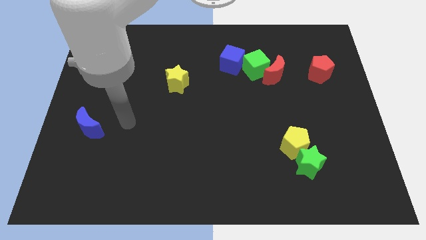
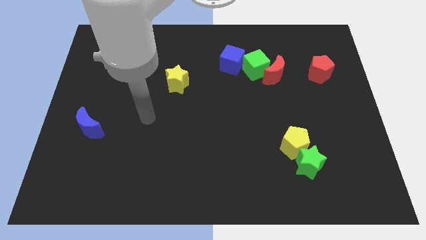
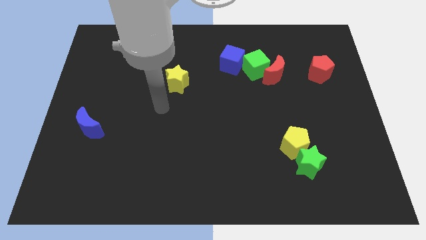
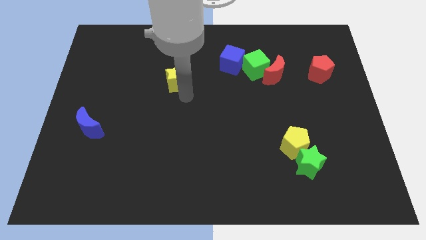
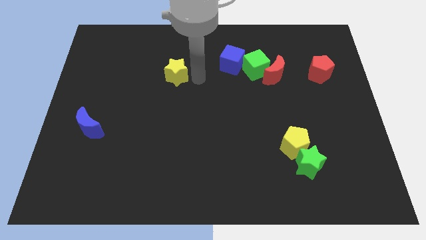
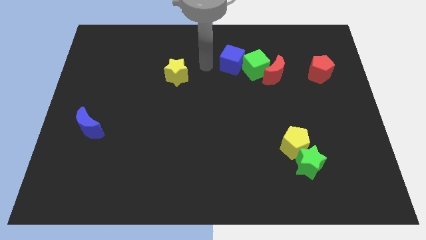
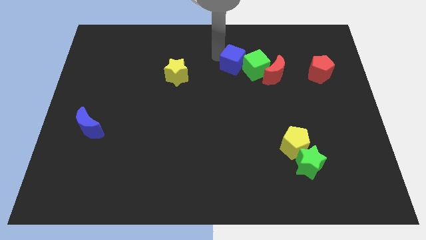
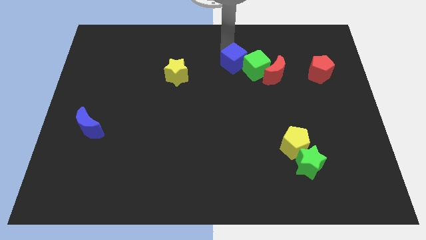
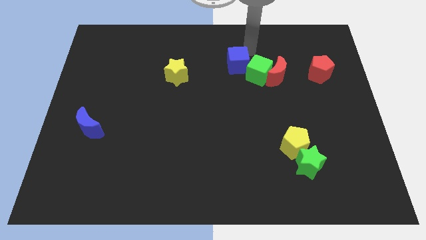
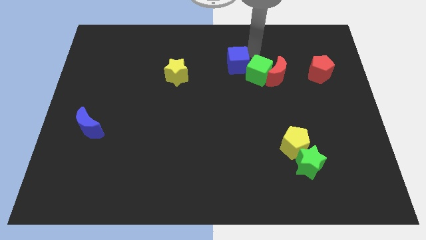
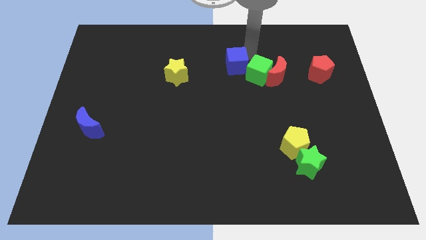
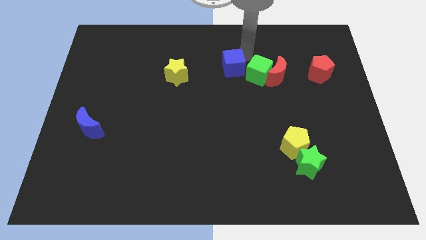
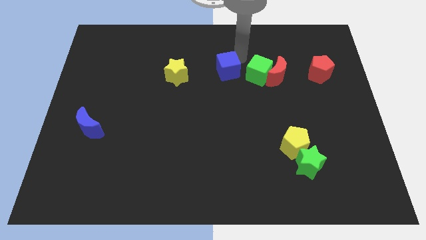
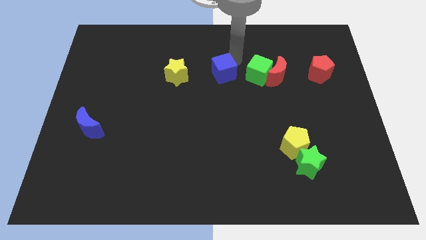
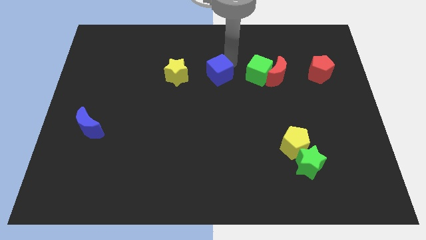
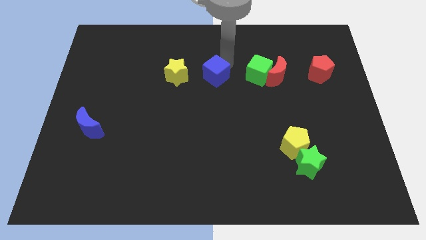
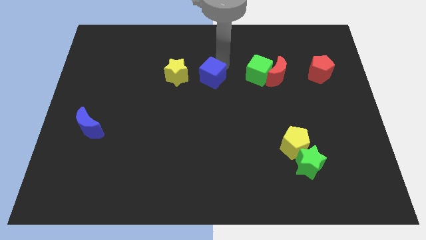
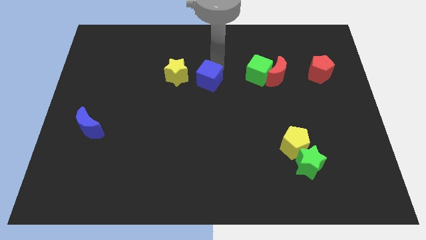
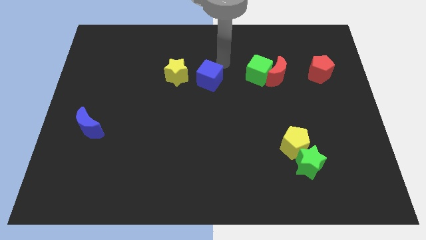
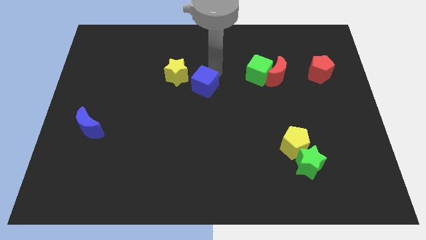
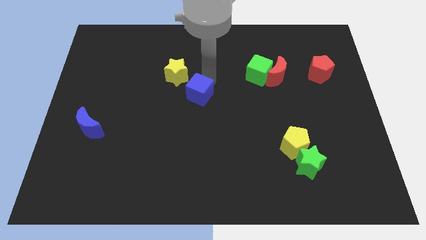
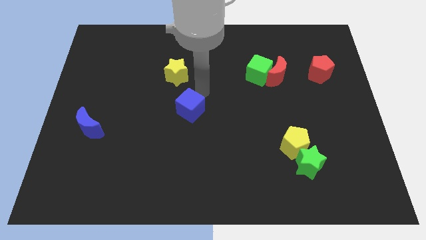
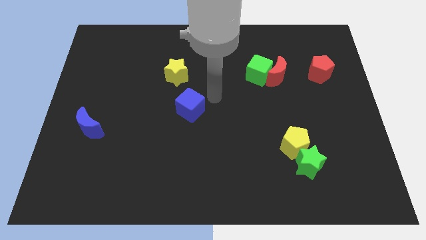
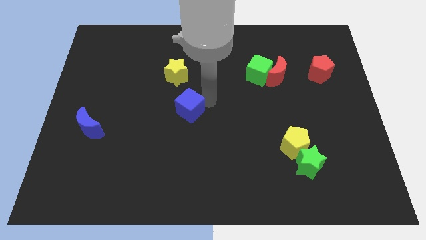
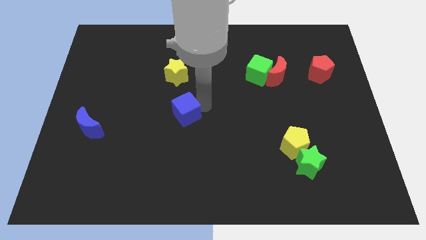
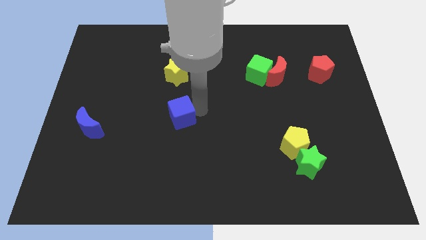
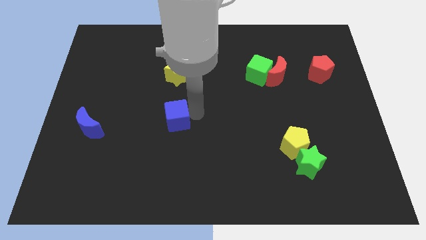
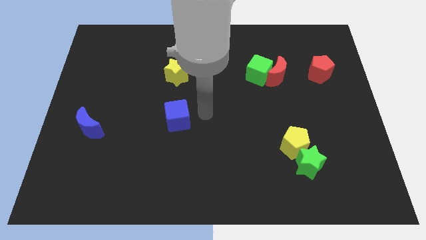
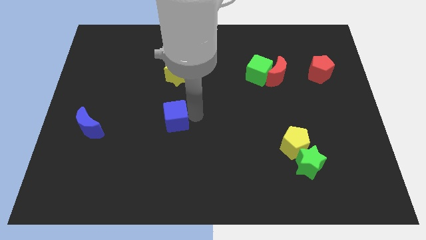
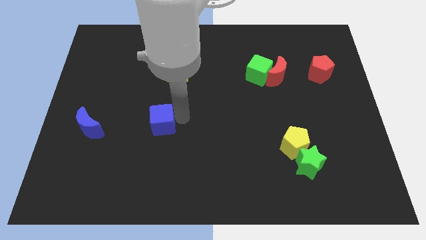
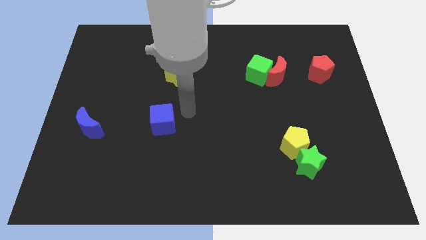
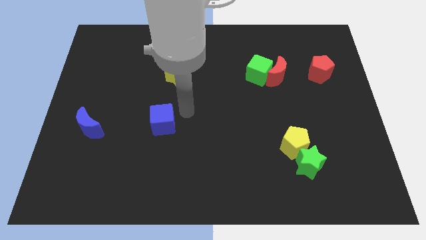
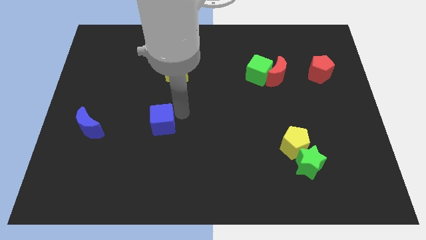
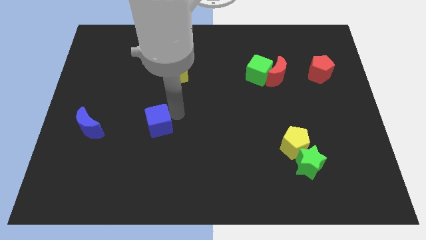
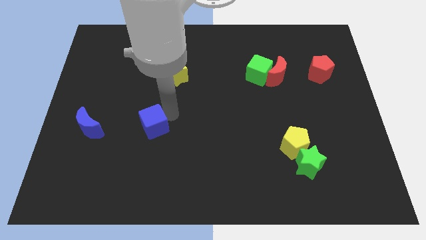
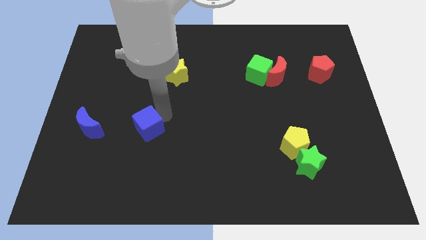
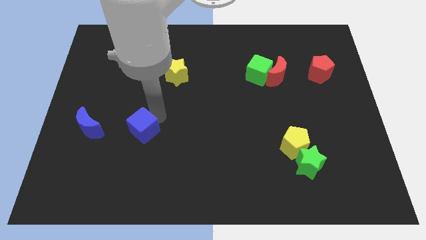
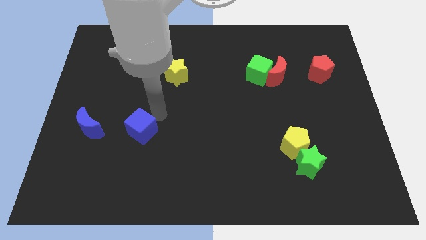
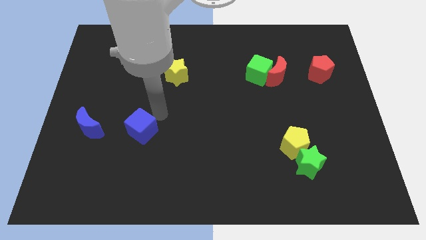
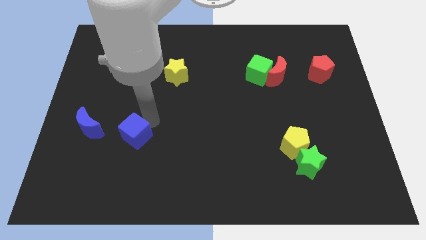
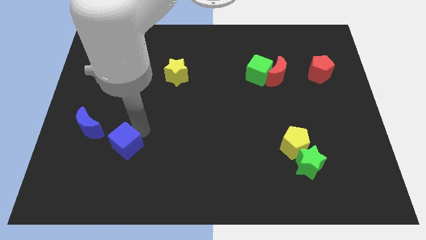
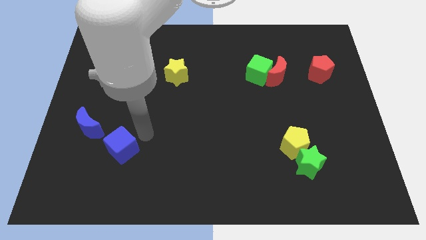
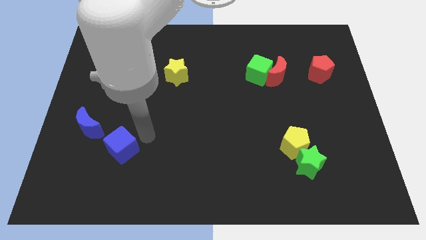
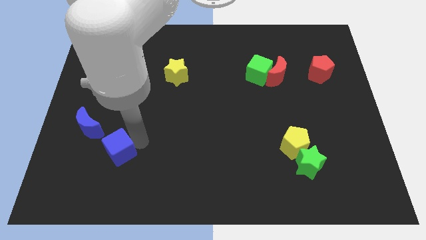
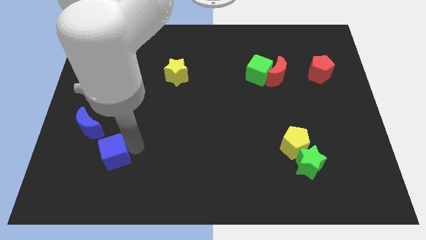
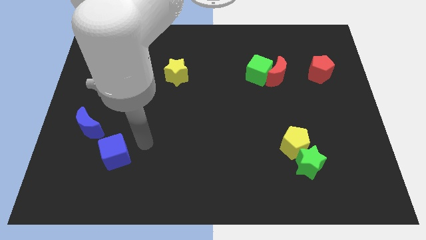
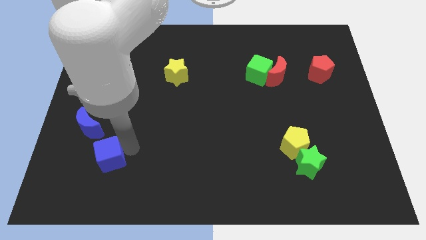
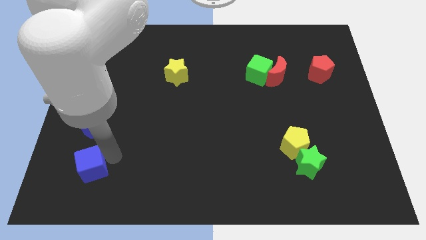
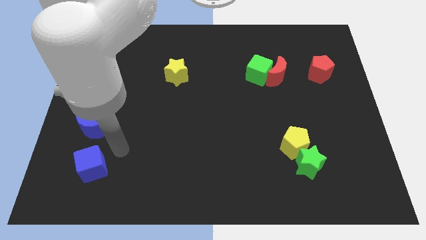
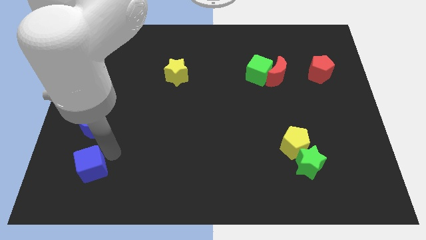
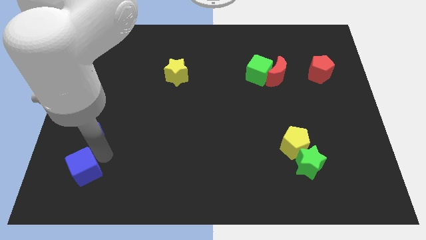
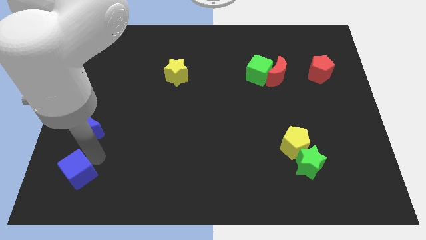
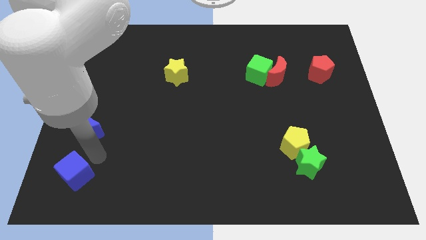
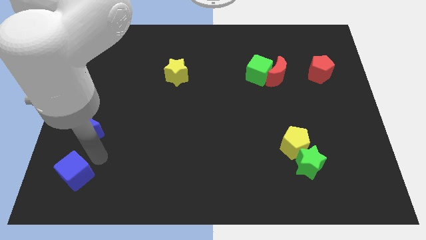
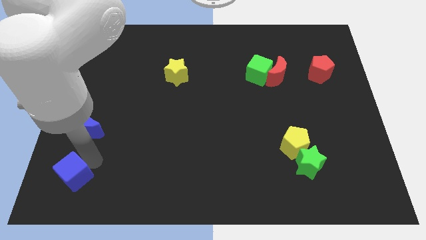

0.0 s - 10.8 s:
push the blue cube to the lower left corner
